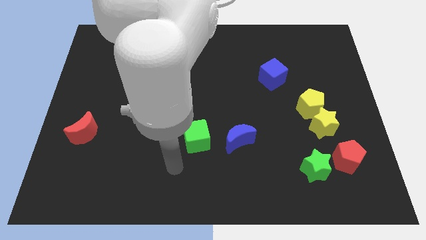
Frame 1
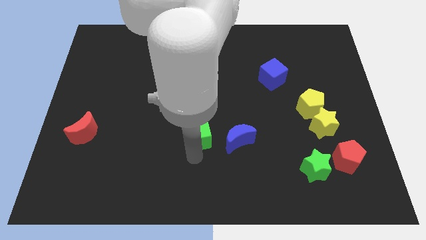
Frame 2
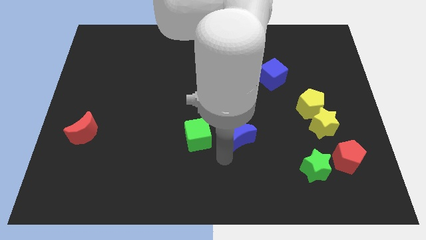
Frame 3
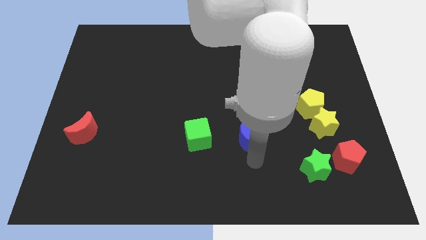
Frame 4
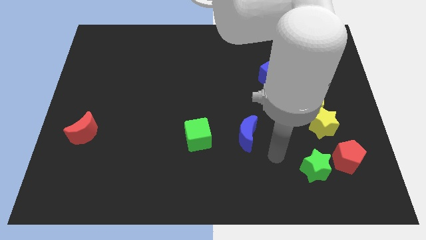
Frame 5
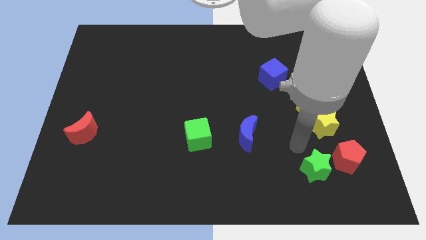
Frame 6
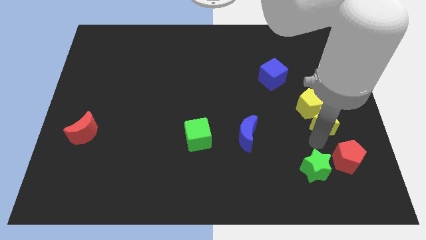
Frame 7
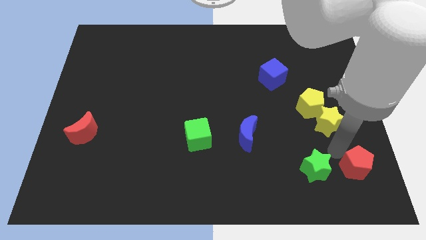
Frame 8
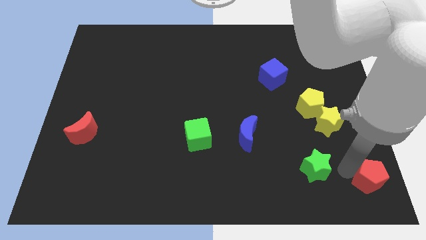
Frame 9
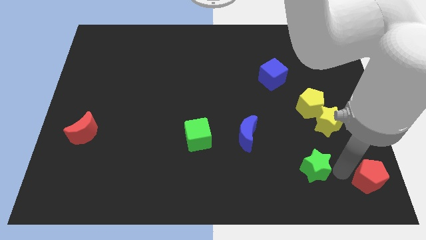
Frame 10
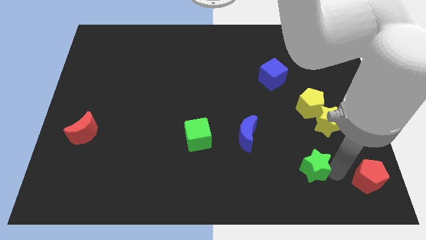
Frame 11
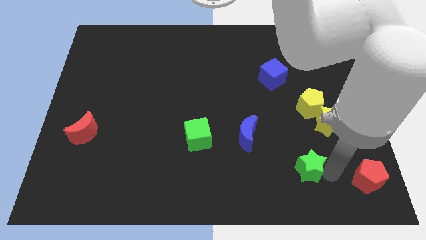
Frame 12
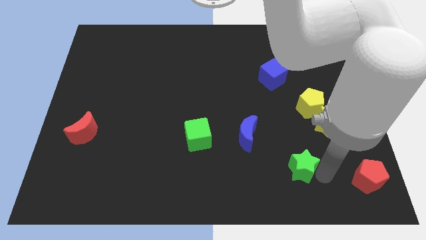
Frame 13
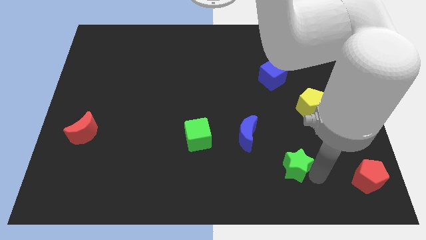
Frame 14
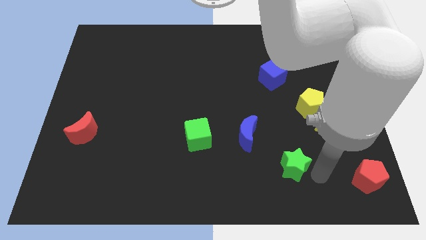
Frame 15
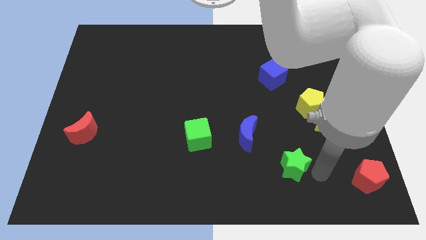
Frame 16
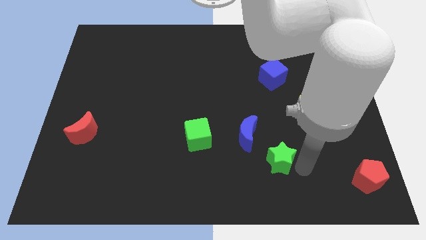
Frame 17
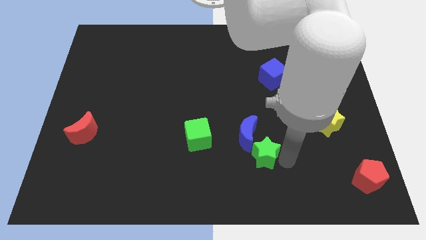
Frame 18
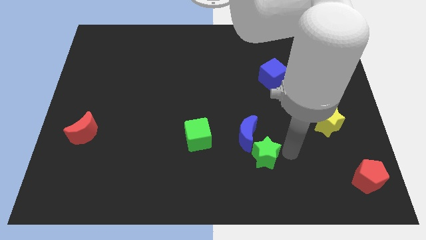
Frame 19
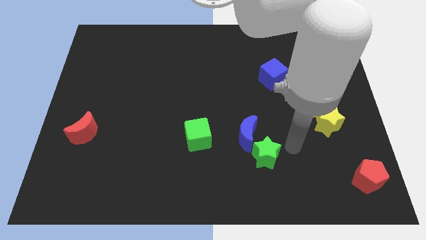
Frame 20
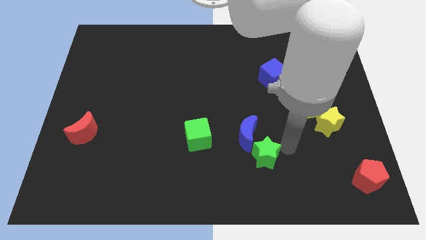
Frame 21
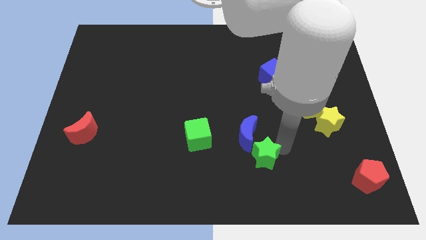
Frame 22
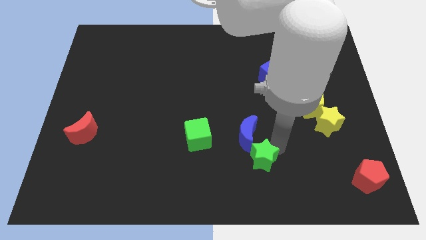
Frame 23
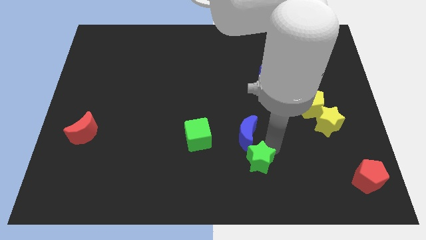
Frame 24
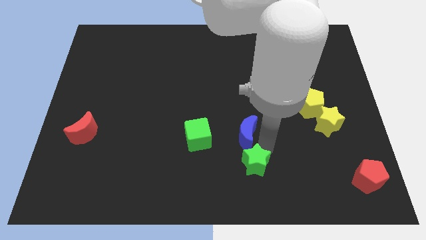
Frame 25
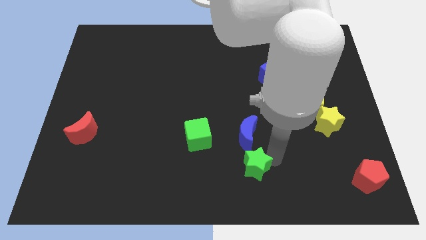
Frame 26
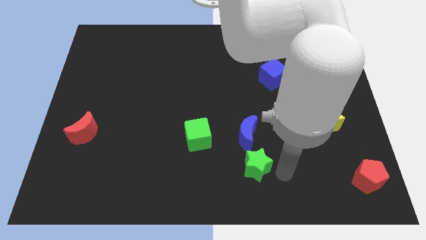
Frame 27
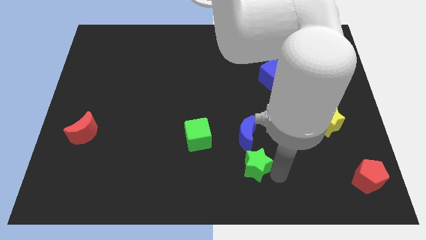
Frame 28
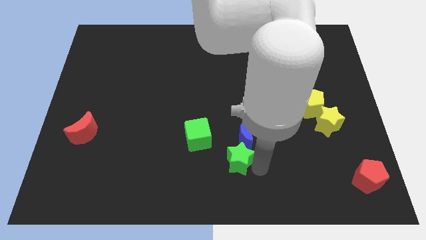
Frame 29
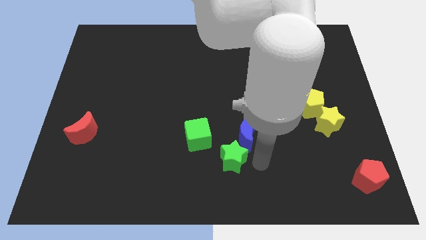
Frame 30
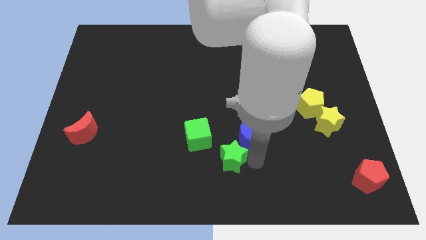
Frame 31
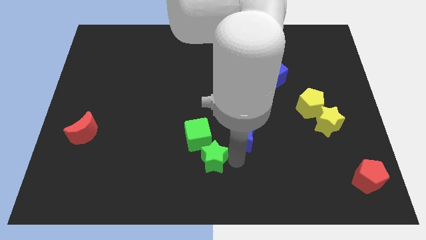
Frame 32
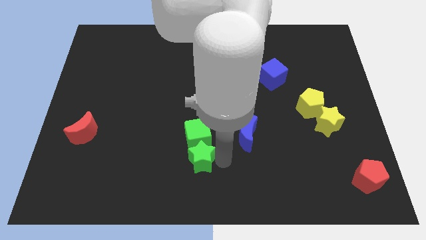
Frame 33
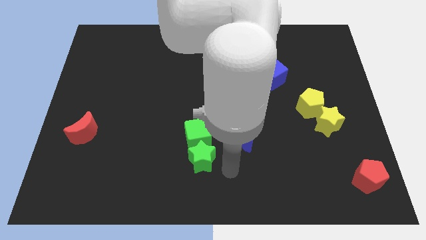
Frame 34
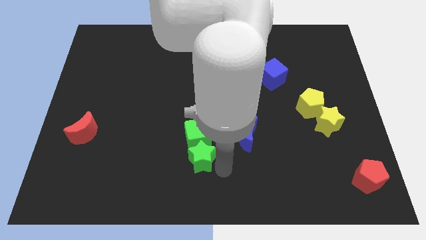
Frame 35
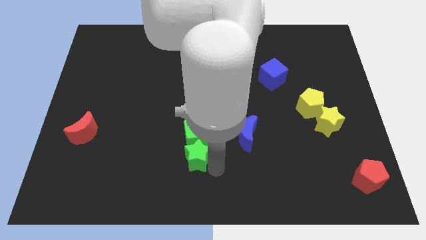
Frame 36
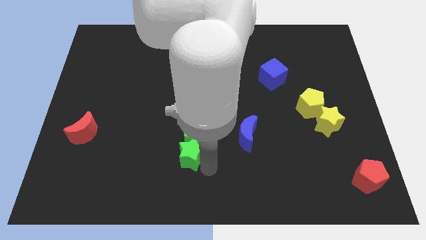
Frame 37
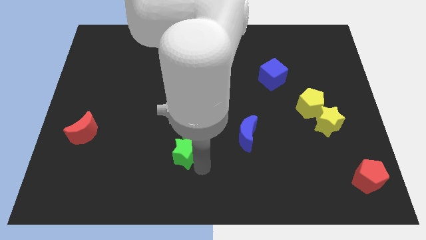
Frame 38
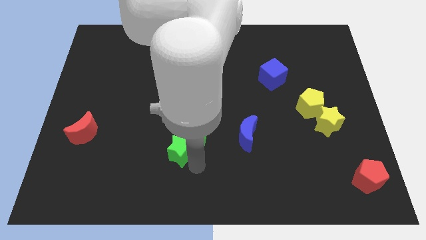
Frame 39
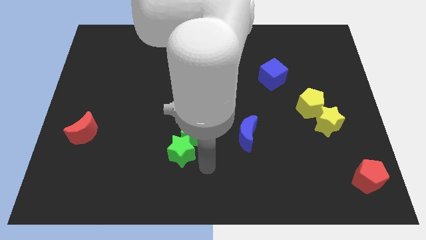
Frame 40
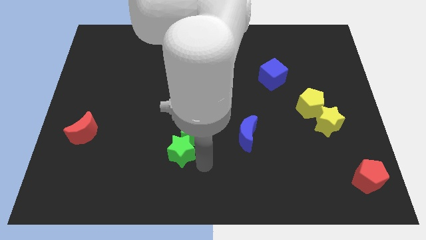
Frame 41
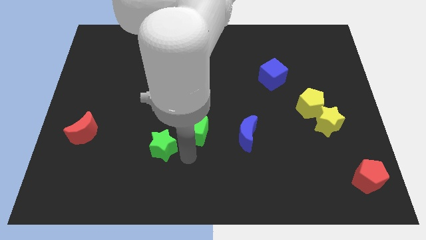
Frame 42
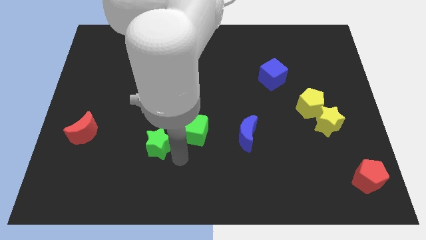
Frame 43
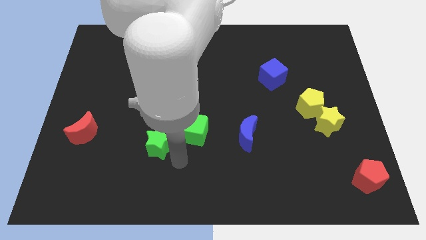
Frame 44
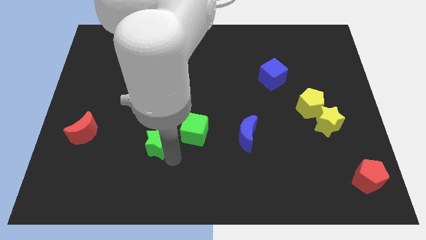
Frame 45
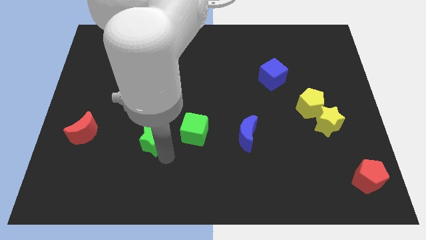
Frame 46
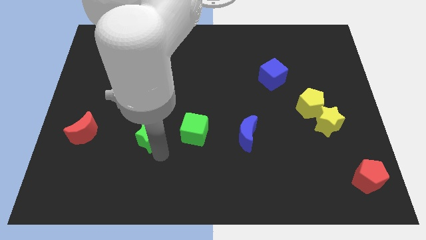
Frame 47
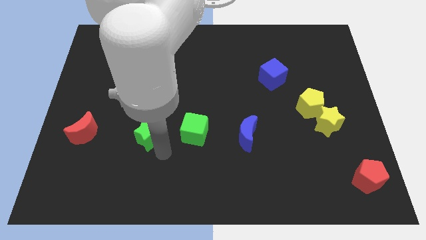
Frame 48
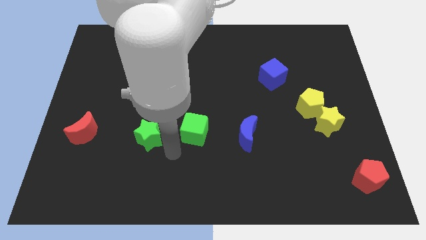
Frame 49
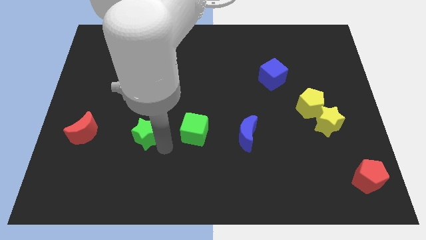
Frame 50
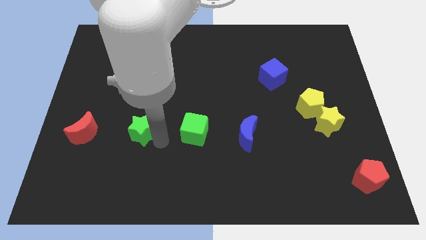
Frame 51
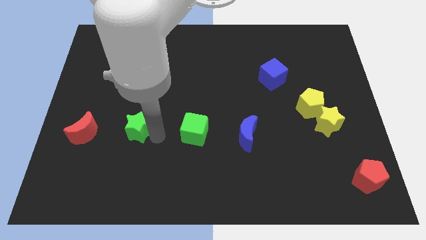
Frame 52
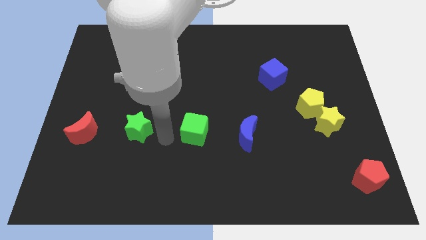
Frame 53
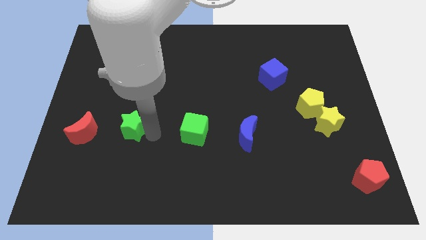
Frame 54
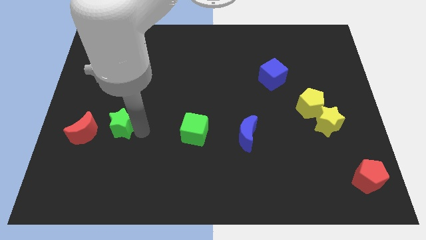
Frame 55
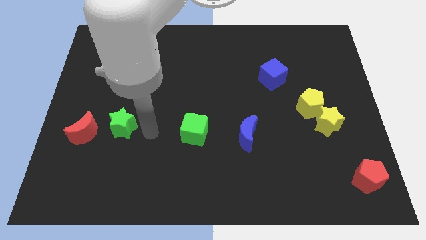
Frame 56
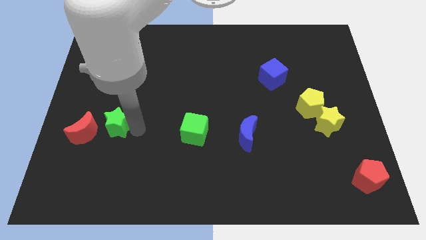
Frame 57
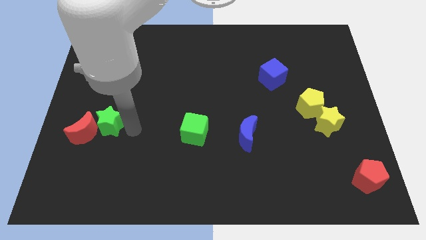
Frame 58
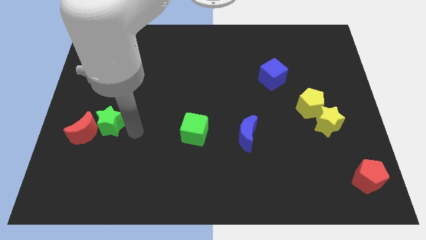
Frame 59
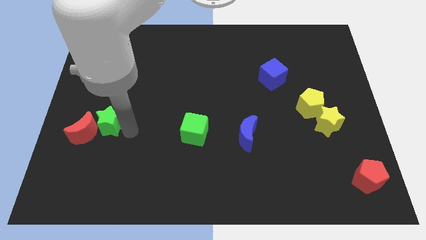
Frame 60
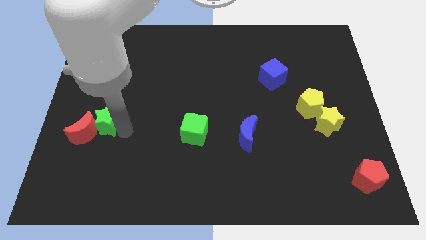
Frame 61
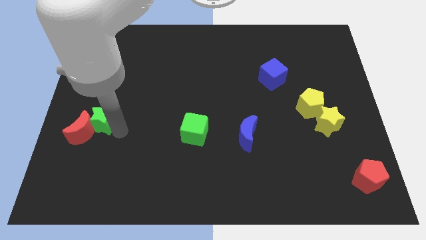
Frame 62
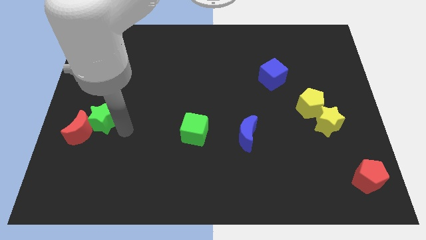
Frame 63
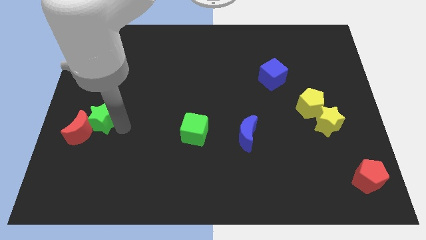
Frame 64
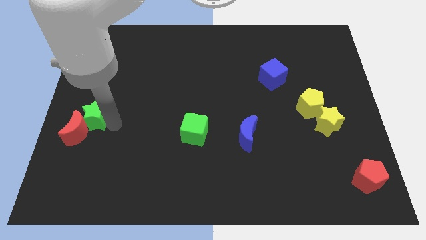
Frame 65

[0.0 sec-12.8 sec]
put the green star to the center left
